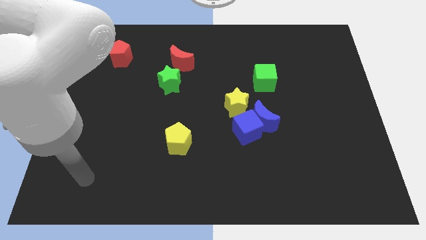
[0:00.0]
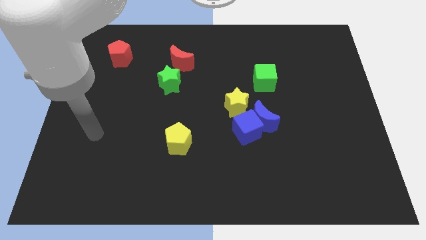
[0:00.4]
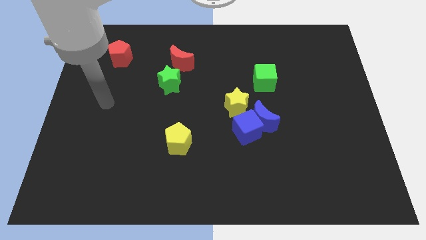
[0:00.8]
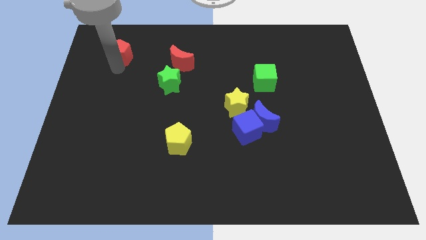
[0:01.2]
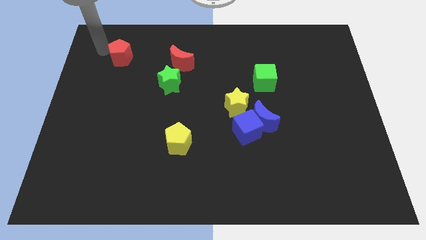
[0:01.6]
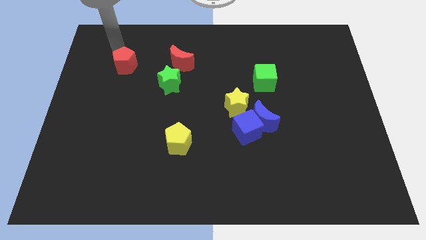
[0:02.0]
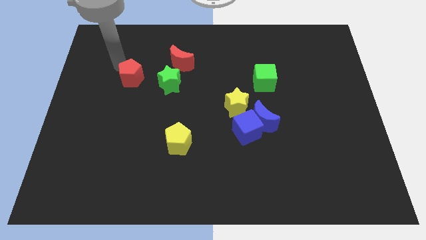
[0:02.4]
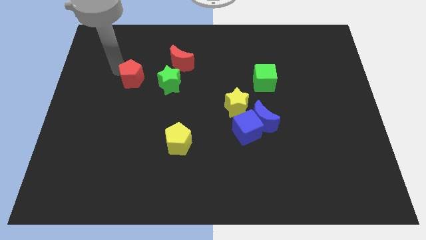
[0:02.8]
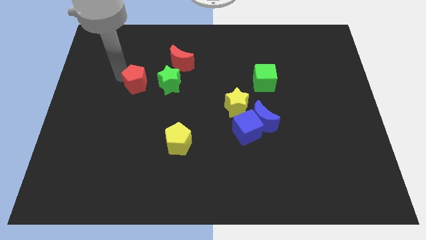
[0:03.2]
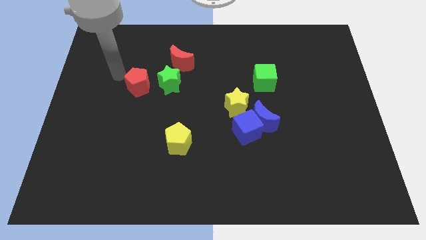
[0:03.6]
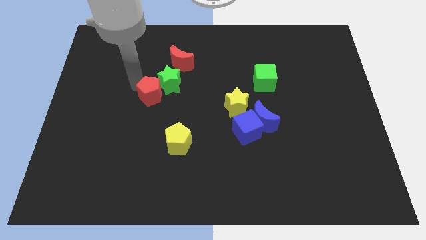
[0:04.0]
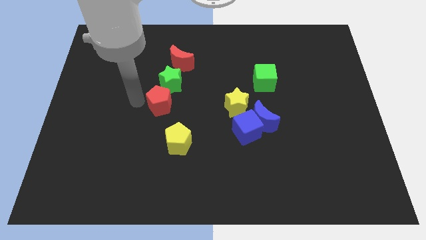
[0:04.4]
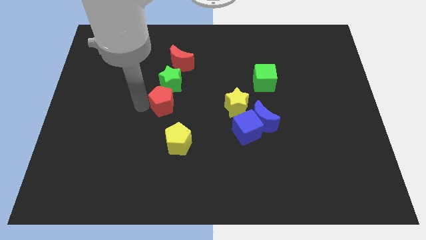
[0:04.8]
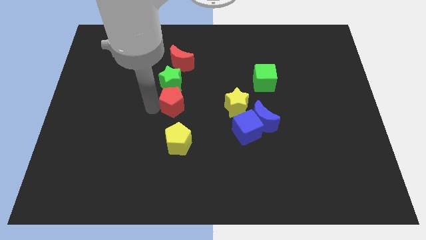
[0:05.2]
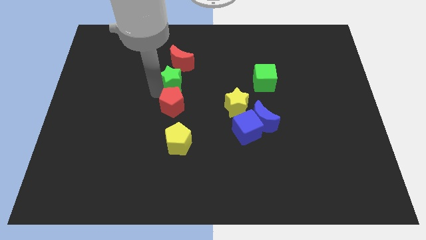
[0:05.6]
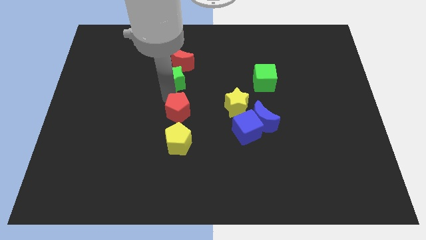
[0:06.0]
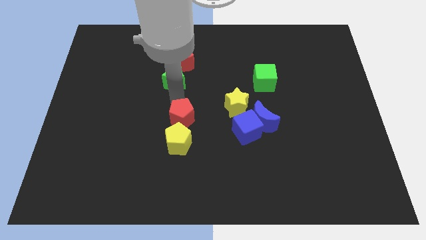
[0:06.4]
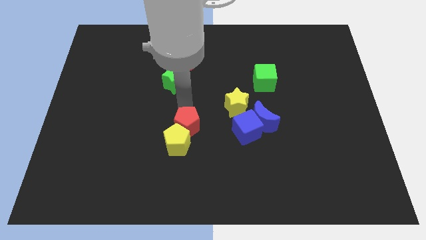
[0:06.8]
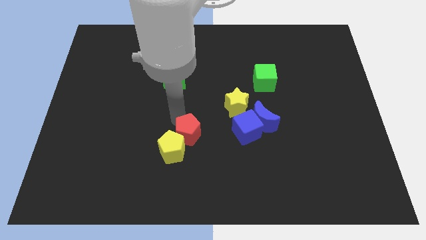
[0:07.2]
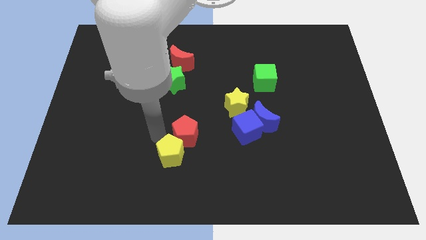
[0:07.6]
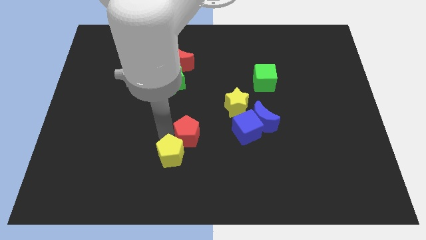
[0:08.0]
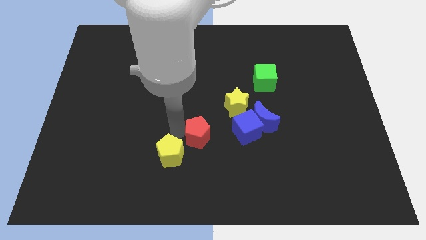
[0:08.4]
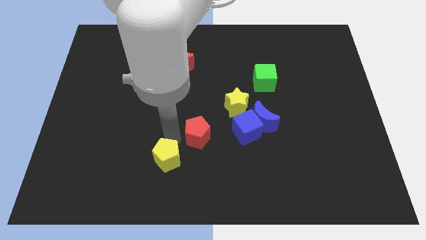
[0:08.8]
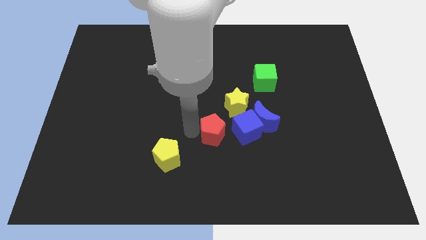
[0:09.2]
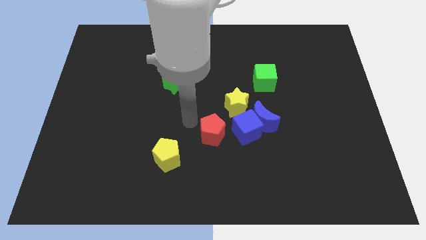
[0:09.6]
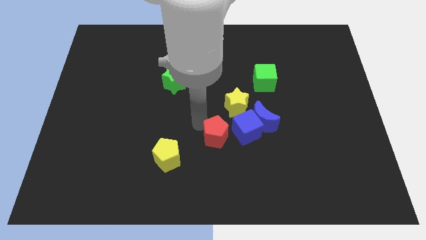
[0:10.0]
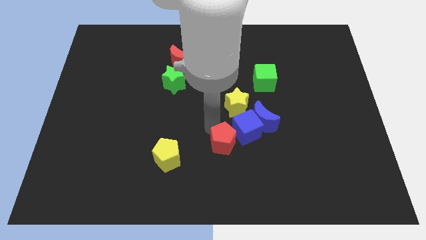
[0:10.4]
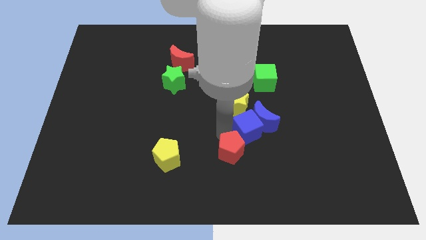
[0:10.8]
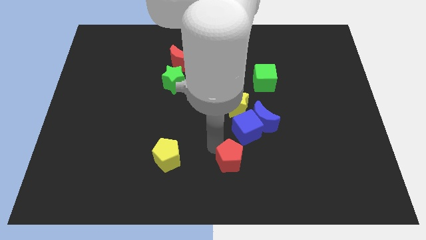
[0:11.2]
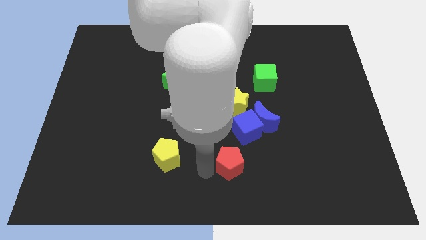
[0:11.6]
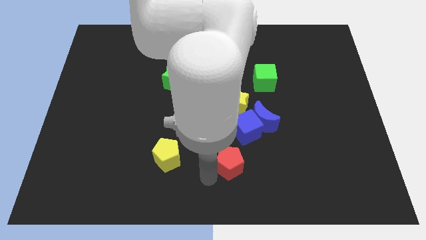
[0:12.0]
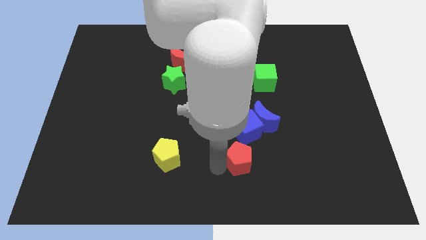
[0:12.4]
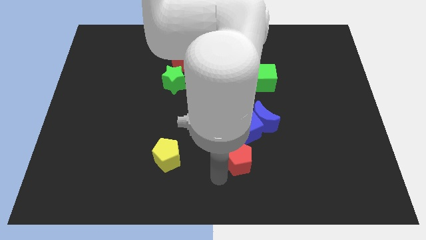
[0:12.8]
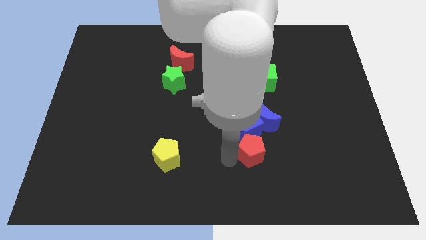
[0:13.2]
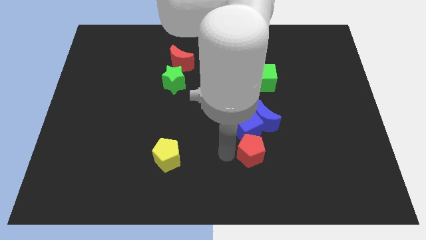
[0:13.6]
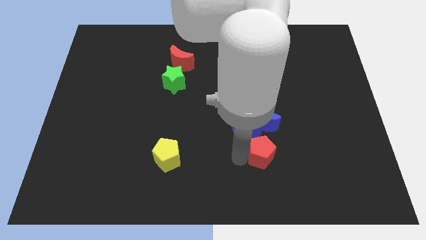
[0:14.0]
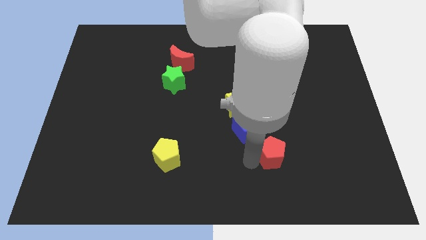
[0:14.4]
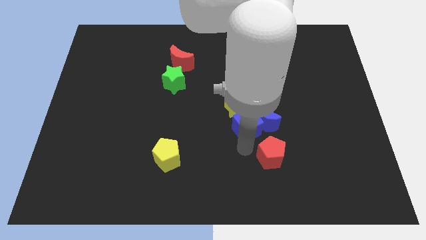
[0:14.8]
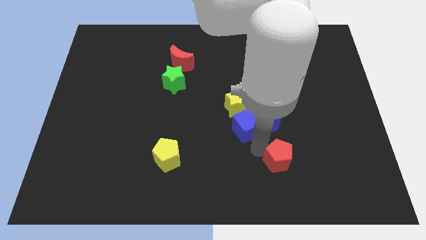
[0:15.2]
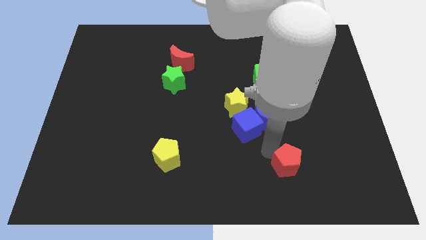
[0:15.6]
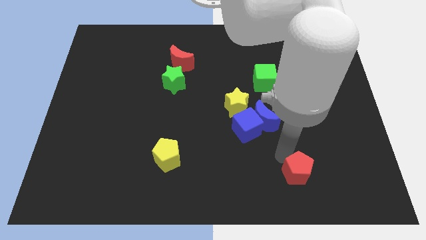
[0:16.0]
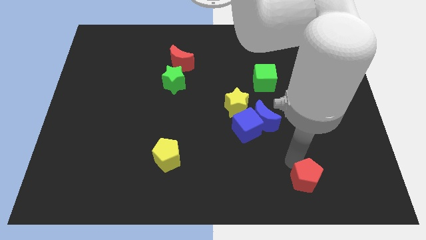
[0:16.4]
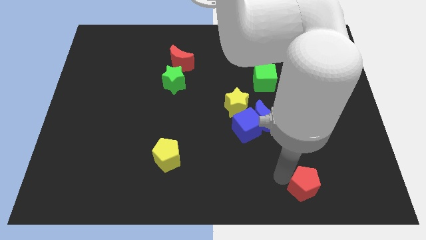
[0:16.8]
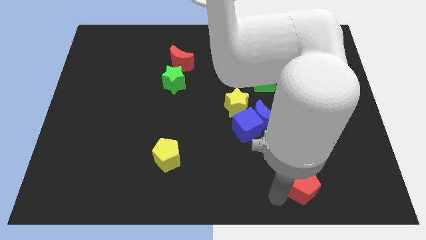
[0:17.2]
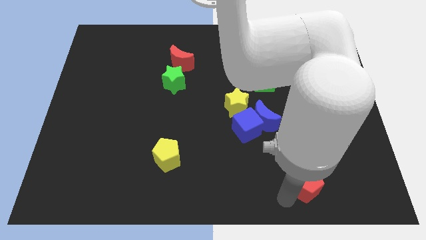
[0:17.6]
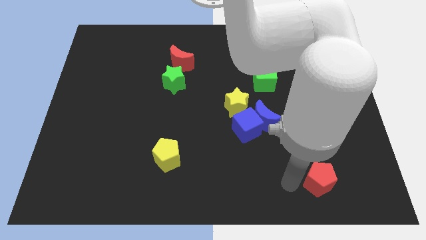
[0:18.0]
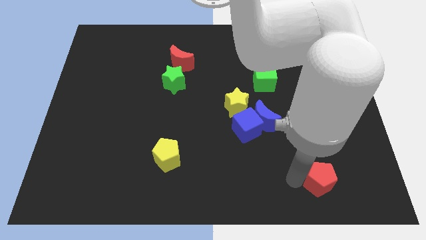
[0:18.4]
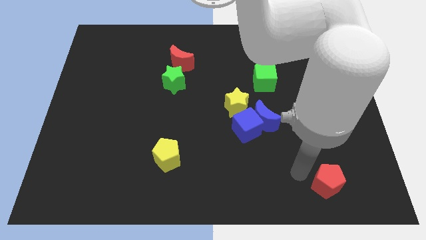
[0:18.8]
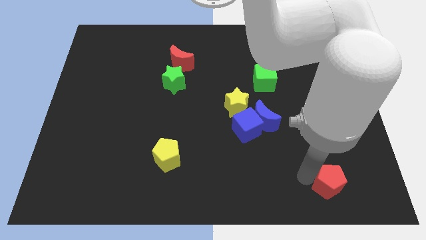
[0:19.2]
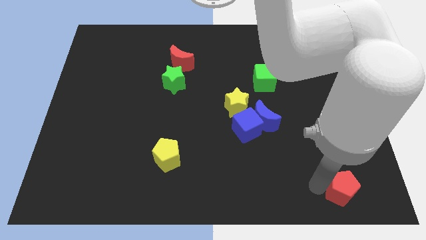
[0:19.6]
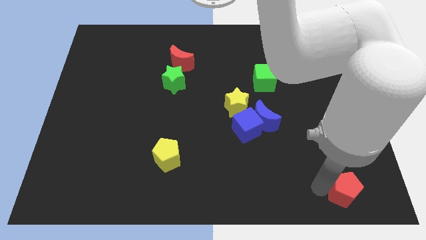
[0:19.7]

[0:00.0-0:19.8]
put the red pentagon to the bottom right corner

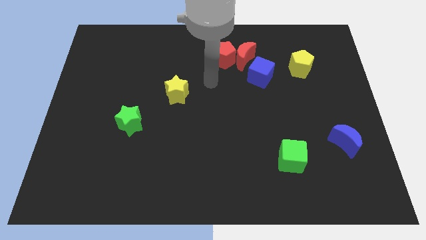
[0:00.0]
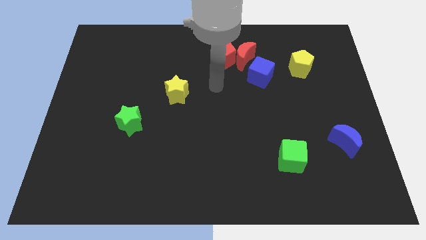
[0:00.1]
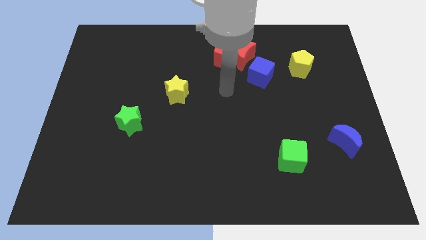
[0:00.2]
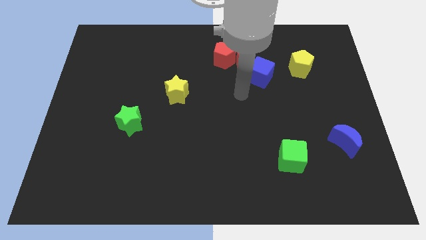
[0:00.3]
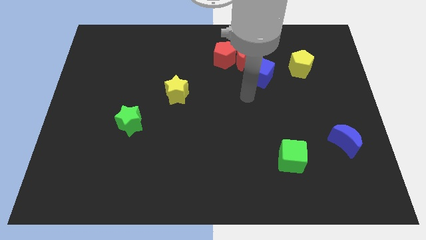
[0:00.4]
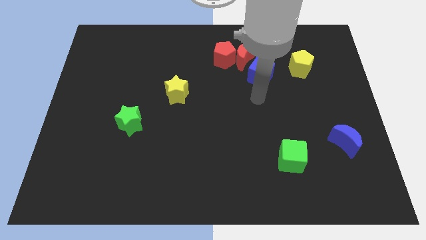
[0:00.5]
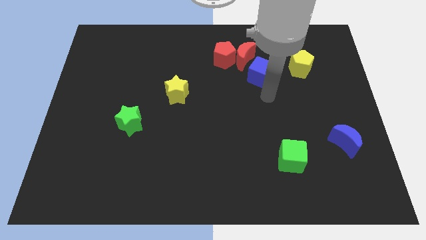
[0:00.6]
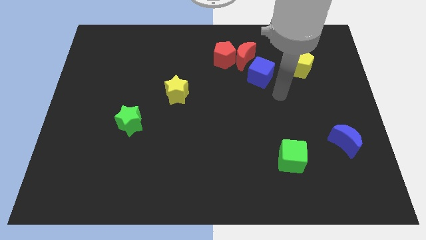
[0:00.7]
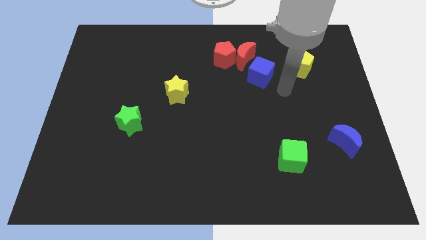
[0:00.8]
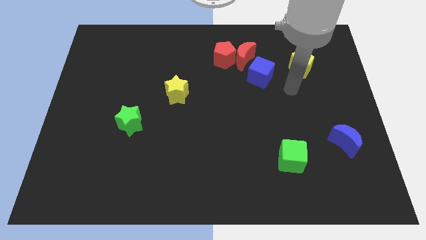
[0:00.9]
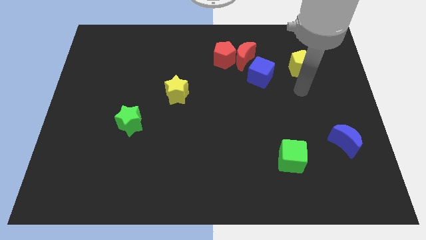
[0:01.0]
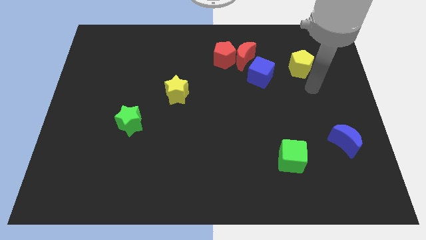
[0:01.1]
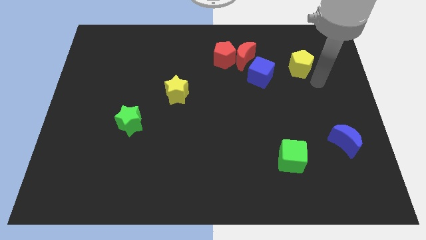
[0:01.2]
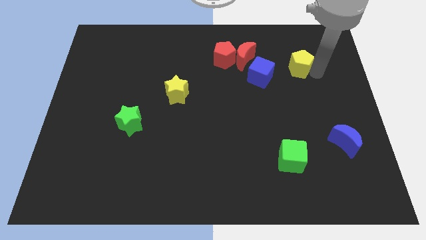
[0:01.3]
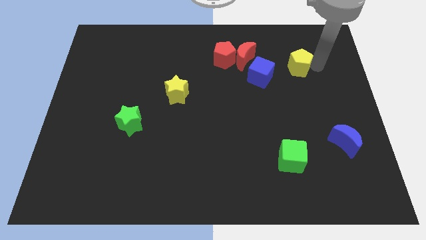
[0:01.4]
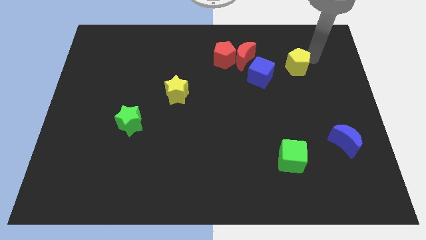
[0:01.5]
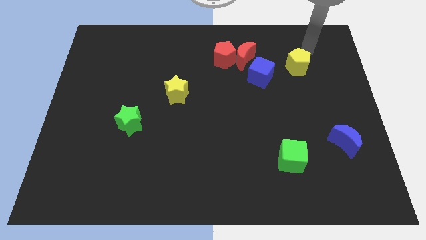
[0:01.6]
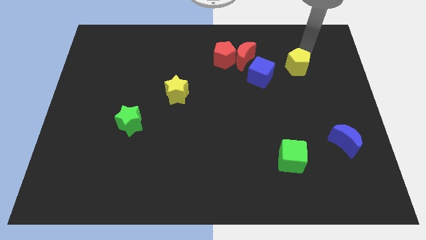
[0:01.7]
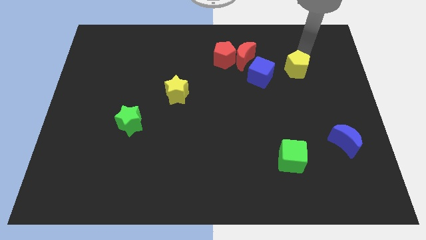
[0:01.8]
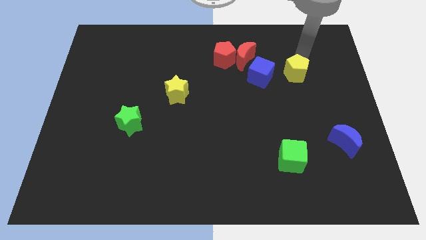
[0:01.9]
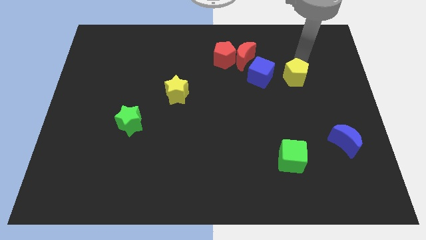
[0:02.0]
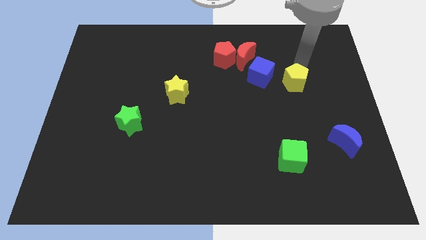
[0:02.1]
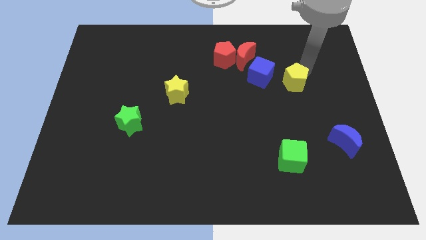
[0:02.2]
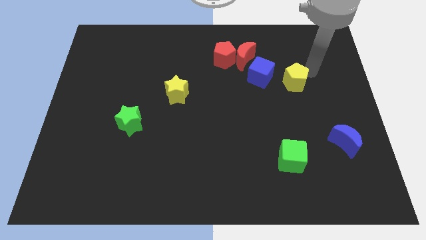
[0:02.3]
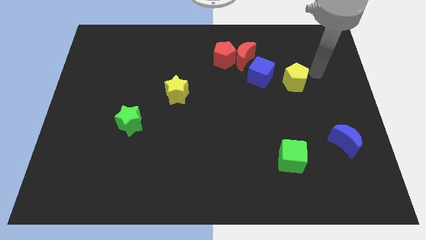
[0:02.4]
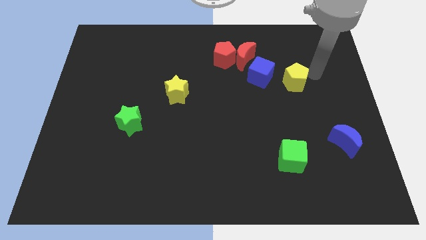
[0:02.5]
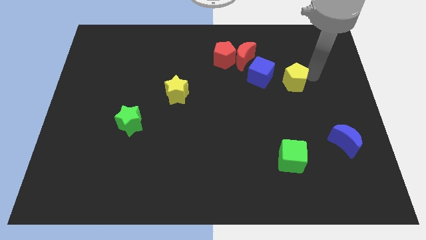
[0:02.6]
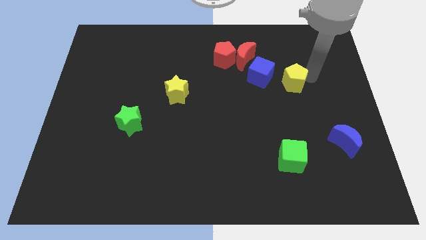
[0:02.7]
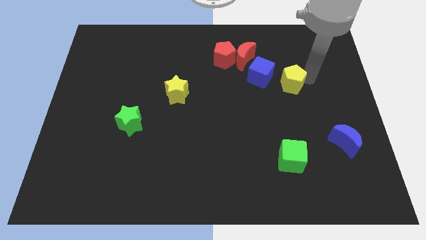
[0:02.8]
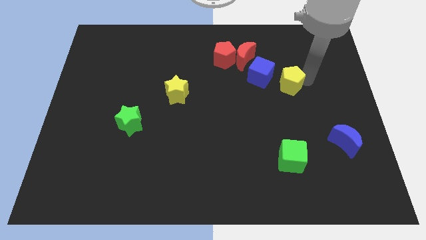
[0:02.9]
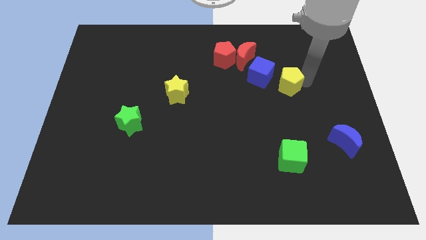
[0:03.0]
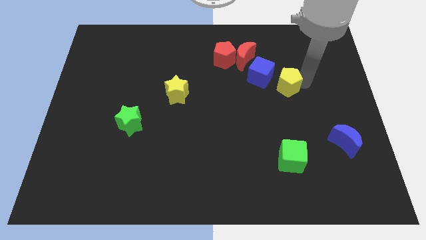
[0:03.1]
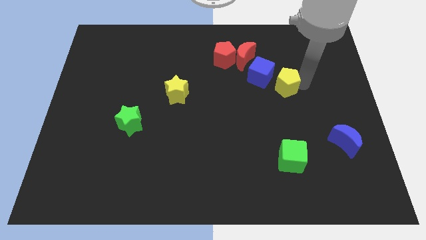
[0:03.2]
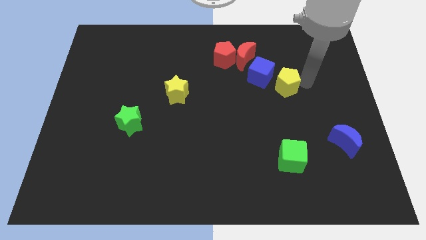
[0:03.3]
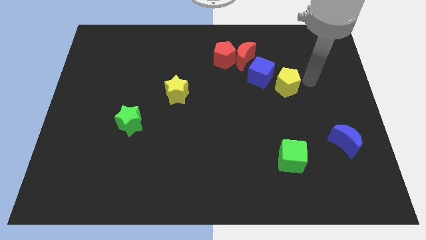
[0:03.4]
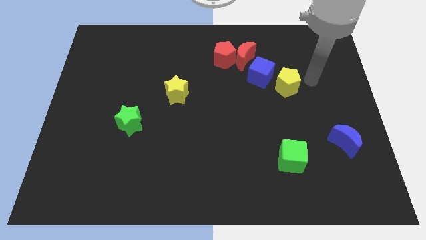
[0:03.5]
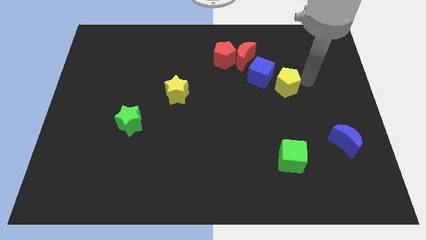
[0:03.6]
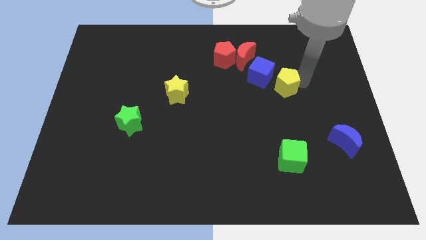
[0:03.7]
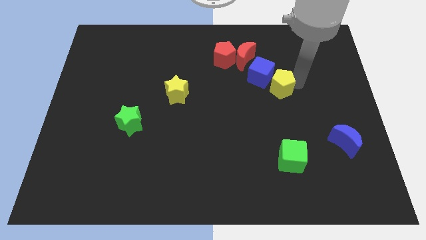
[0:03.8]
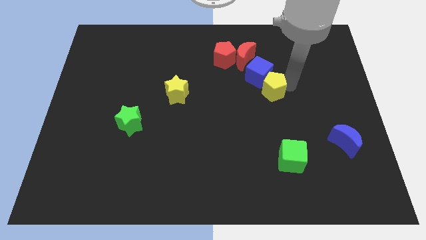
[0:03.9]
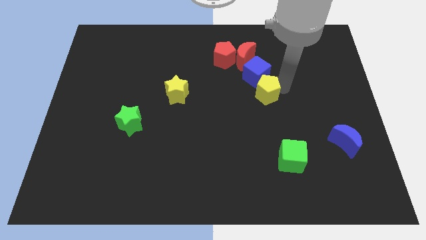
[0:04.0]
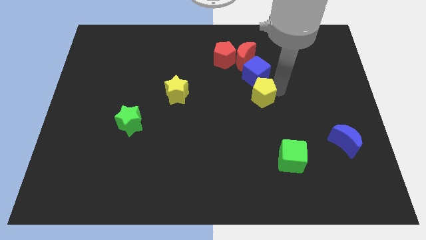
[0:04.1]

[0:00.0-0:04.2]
put the yellow pentagon to the middle of the board
